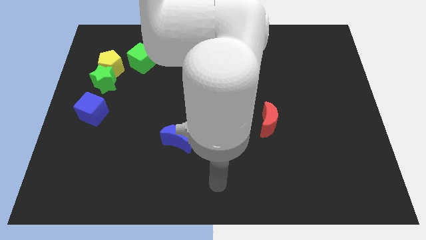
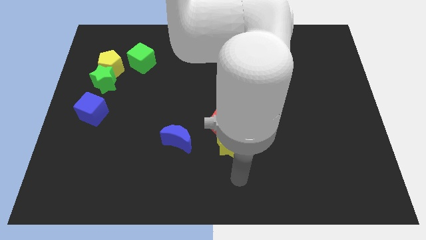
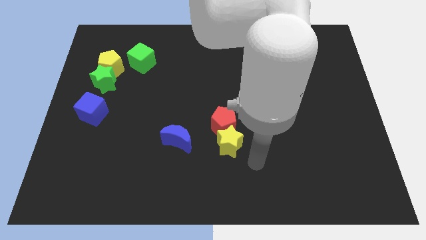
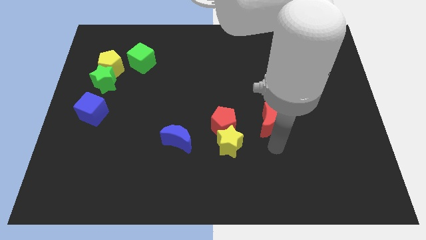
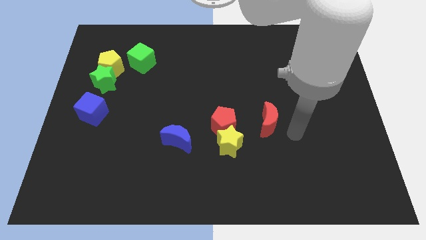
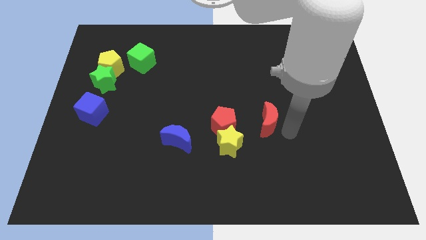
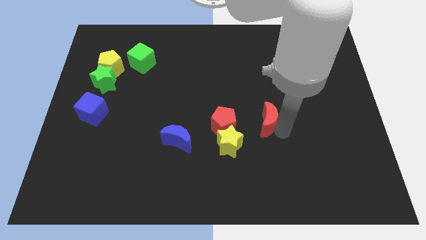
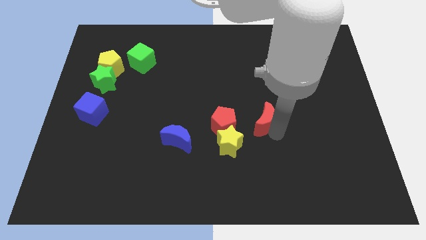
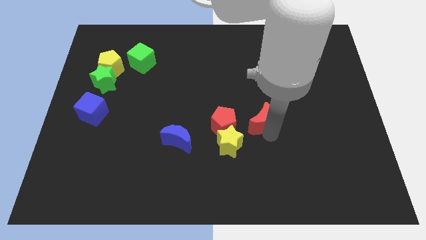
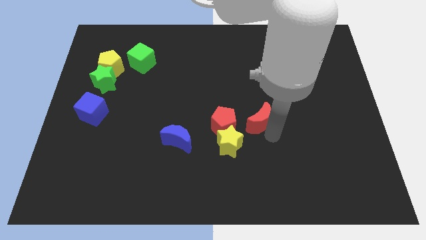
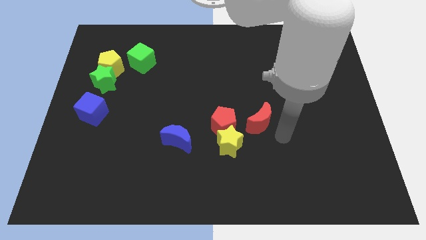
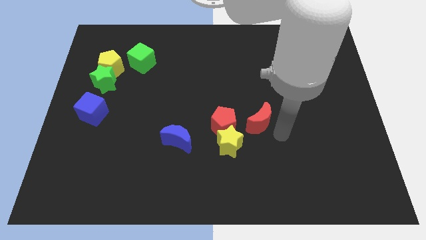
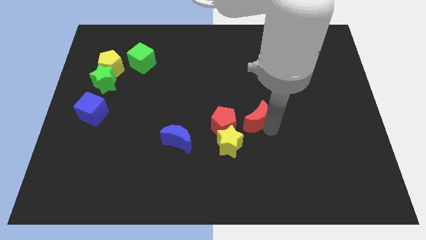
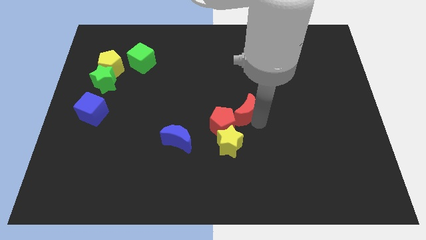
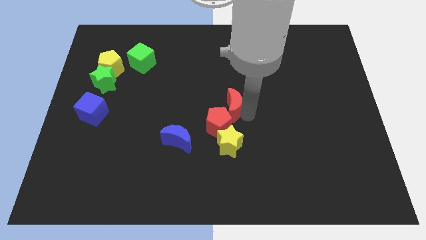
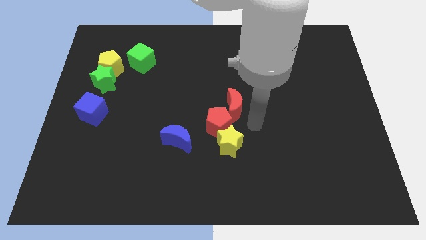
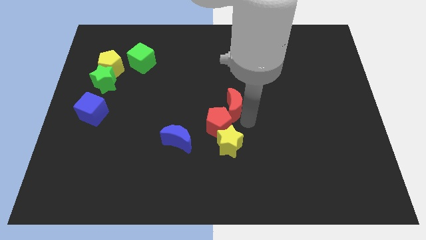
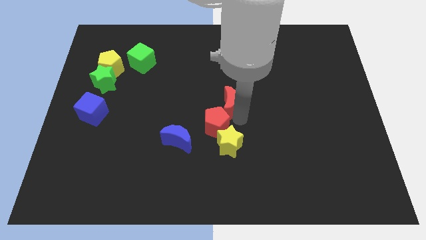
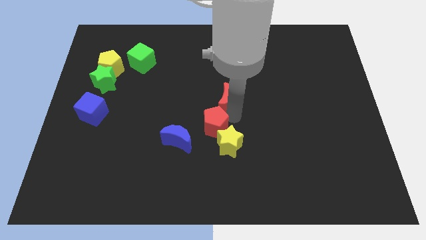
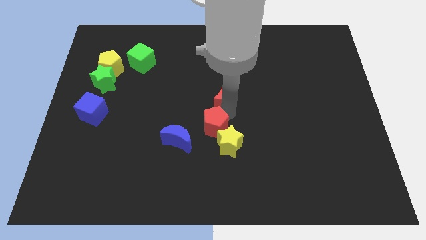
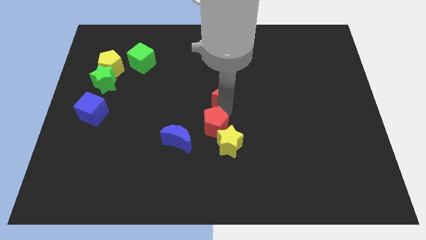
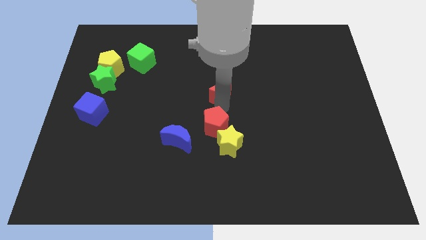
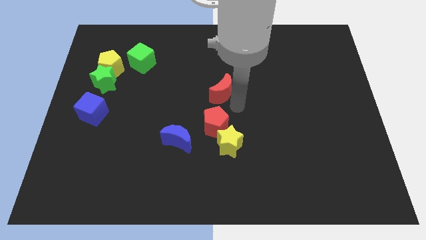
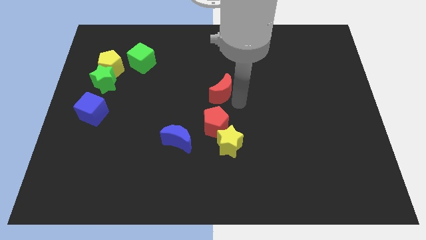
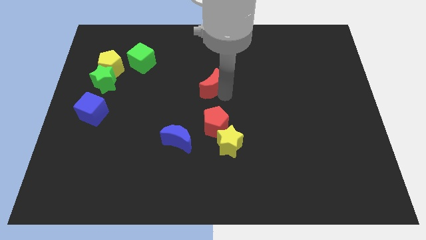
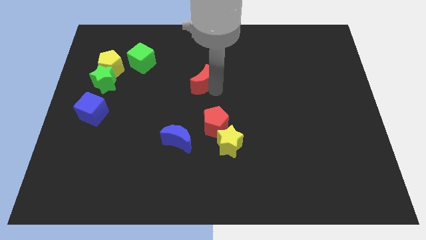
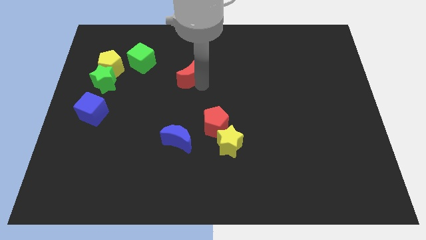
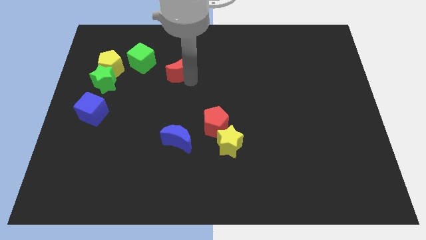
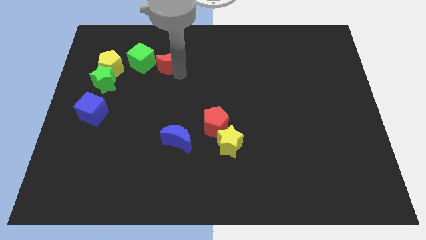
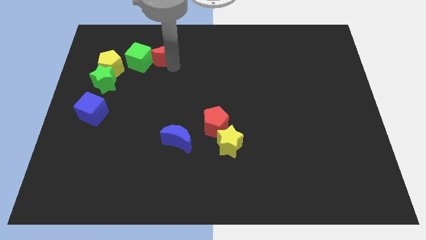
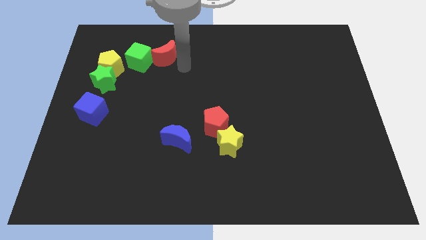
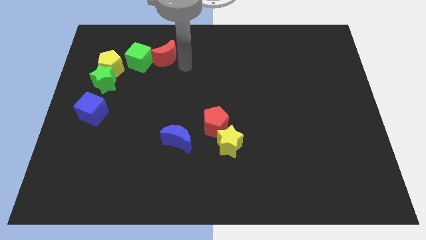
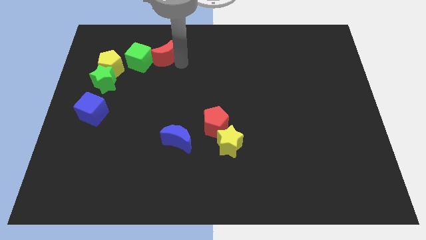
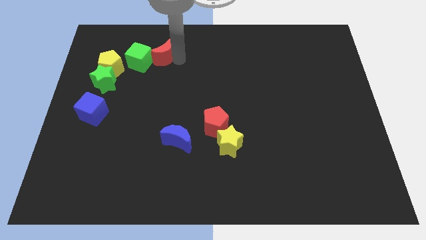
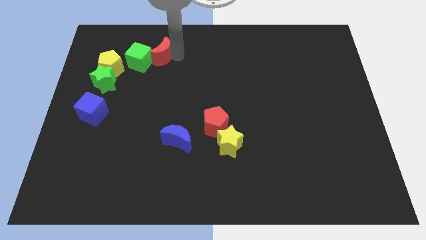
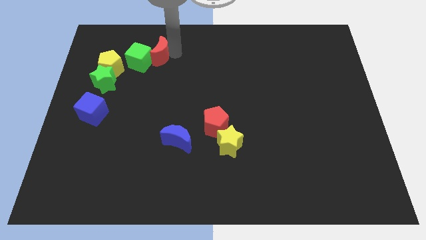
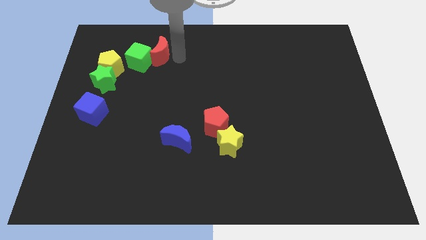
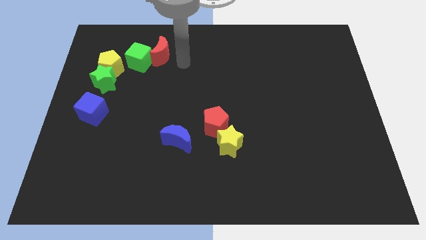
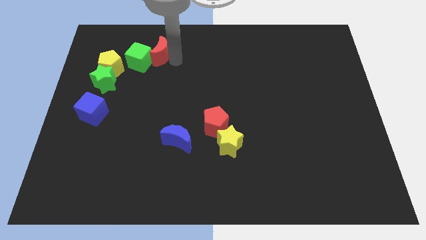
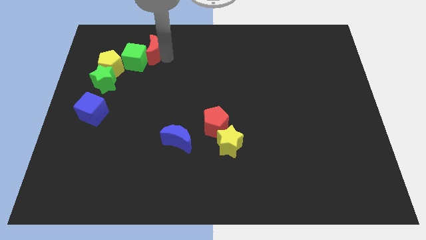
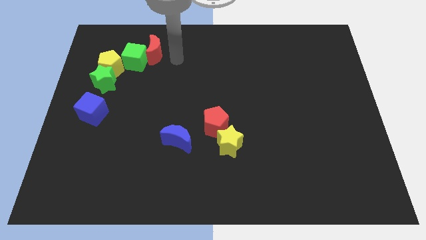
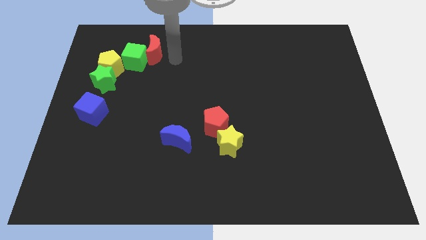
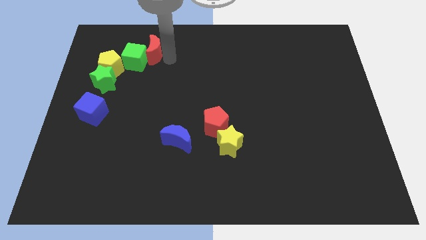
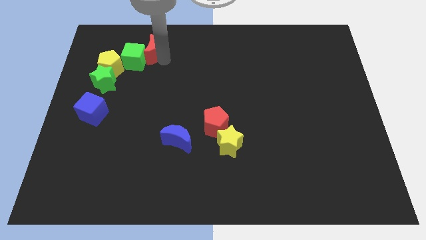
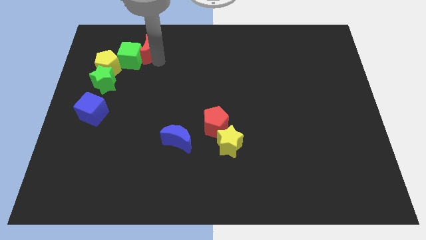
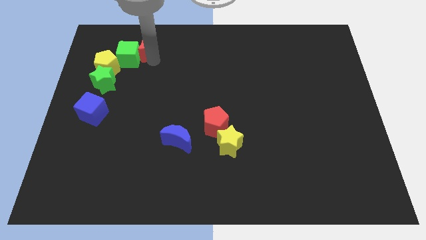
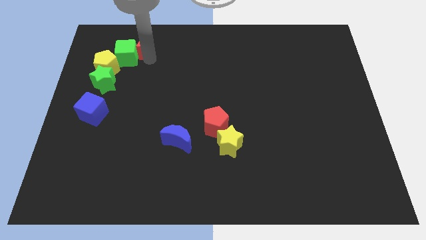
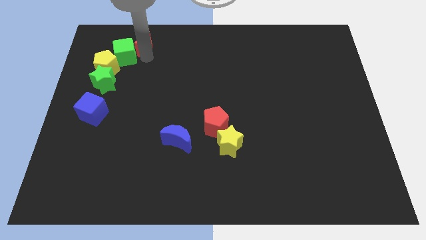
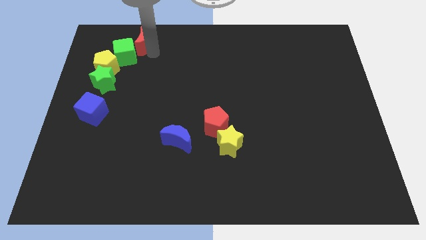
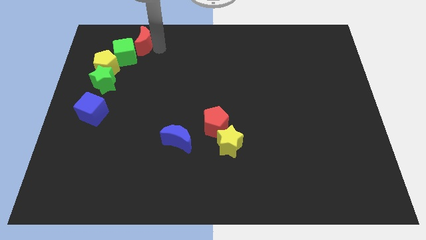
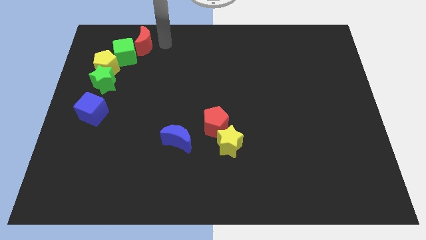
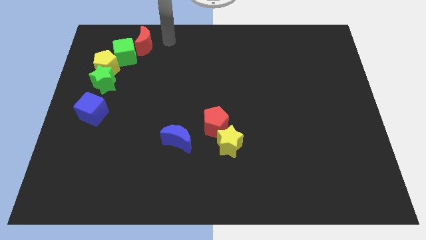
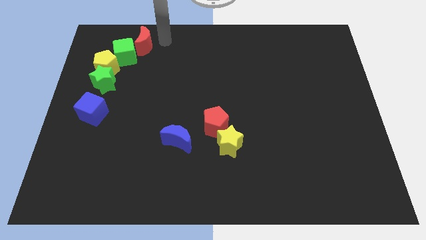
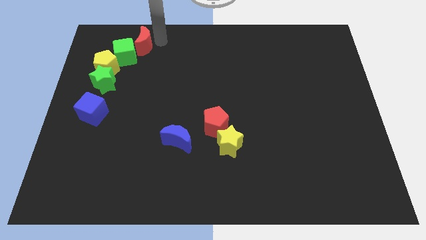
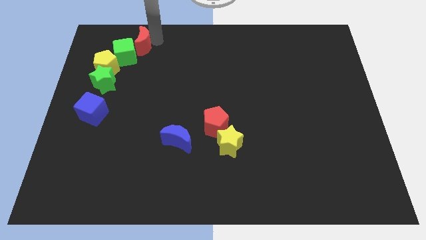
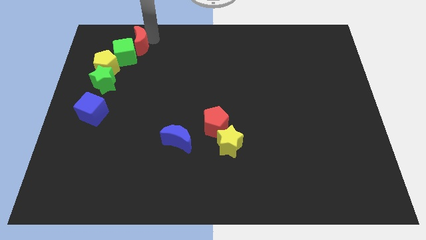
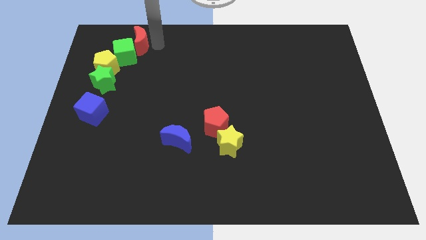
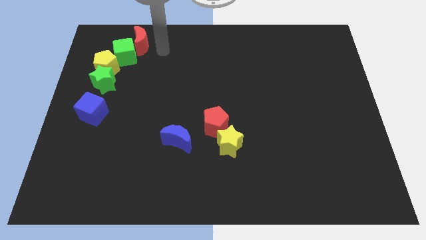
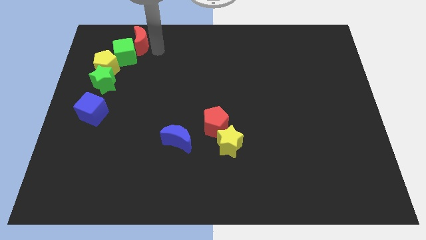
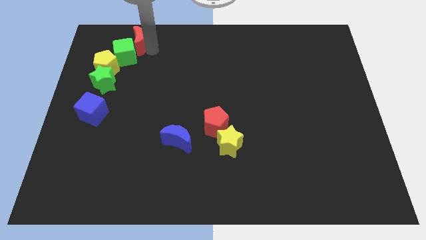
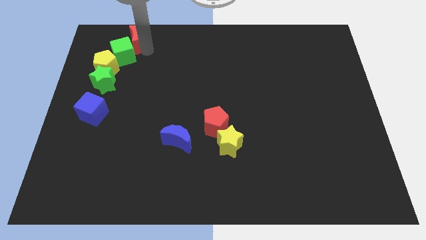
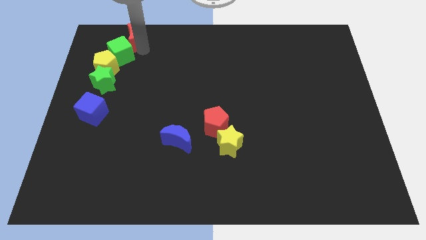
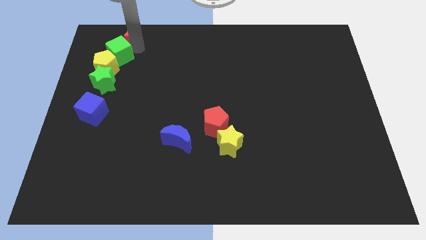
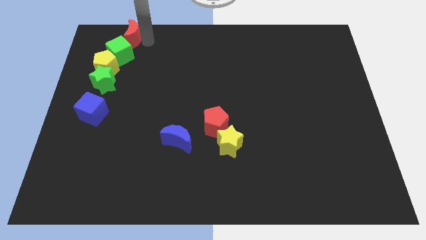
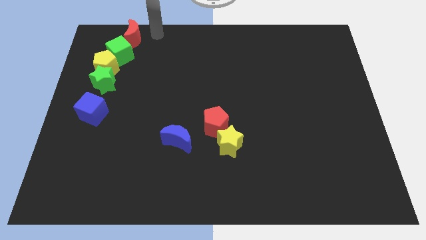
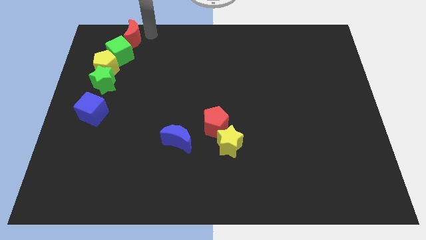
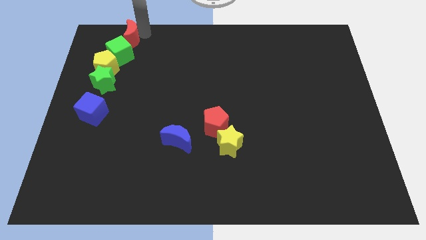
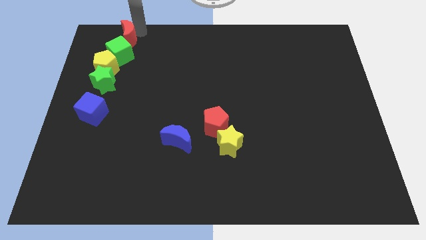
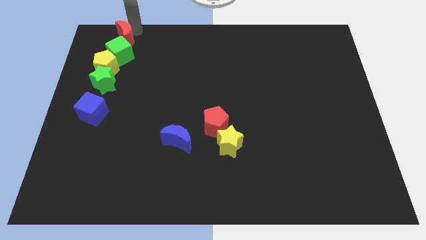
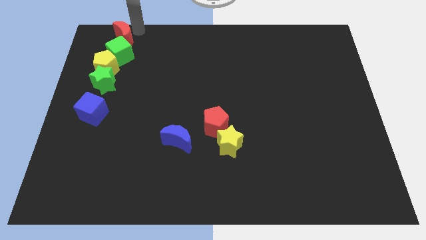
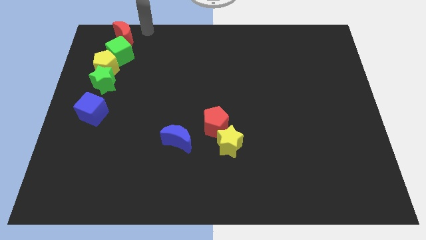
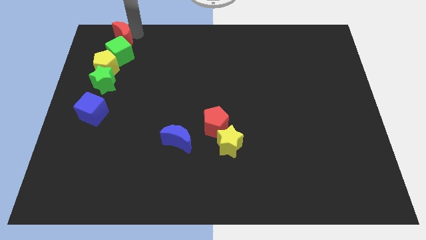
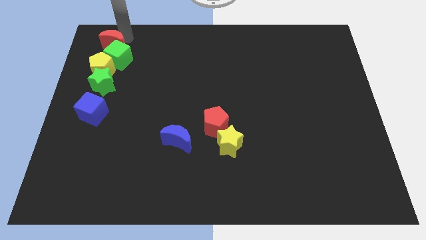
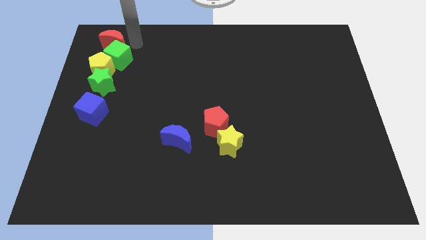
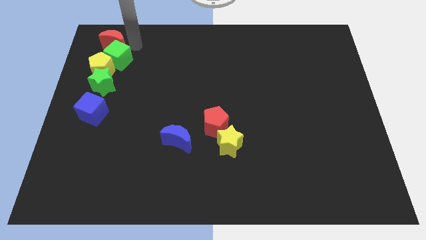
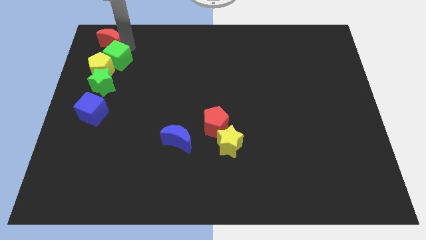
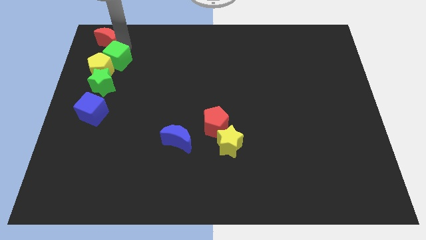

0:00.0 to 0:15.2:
slide the red moon to the top left
